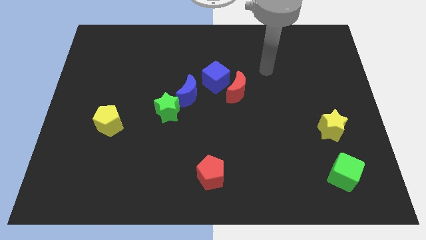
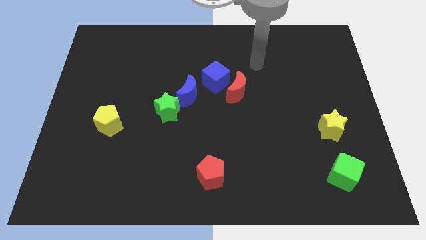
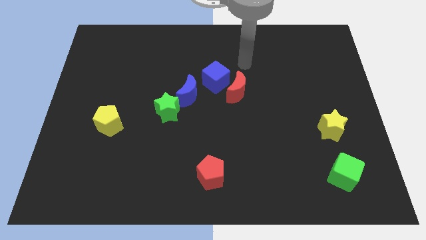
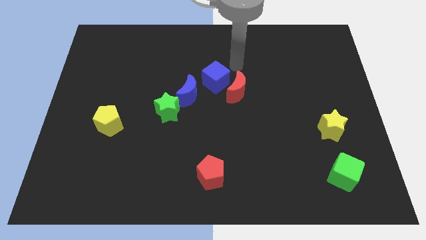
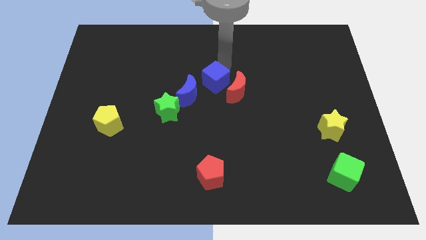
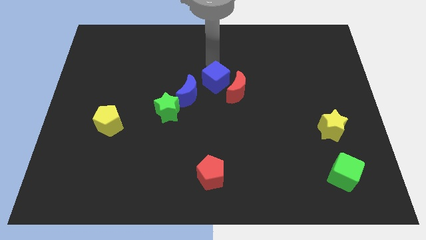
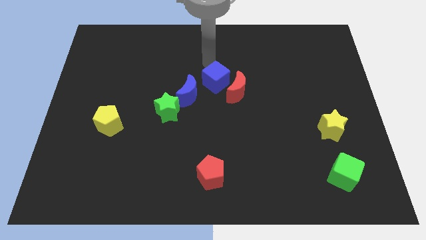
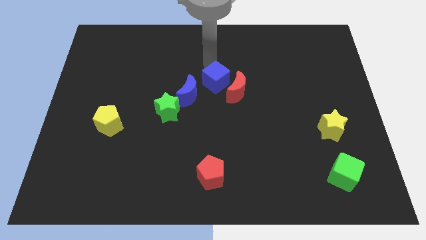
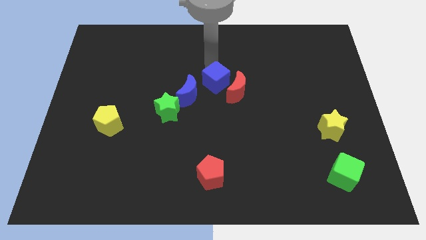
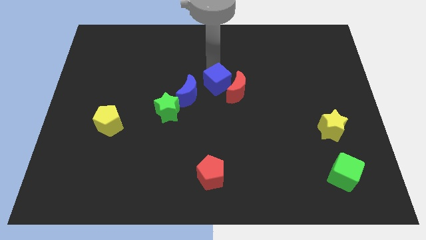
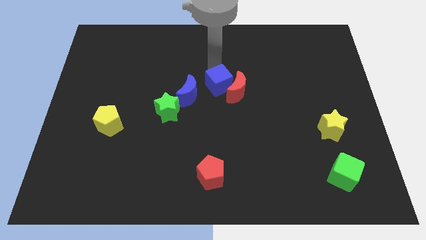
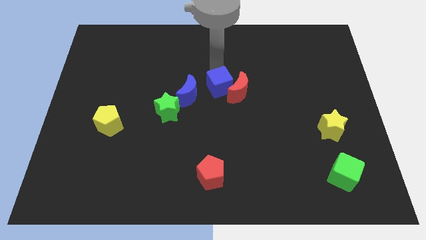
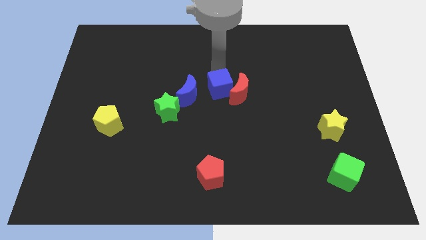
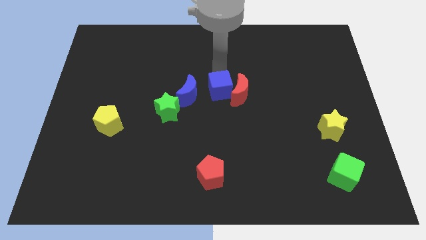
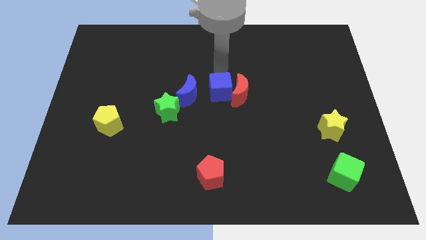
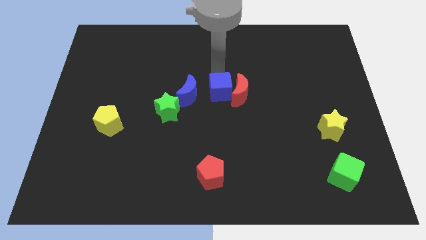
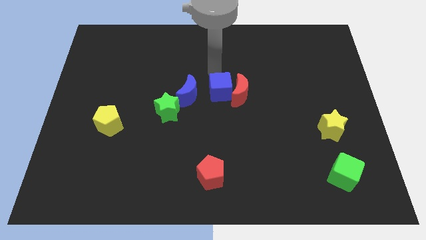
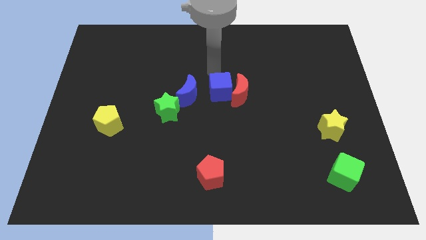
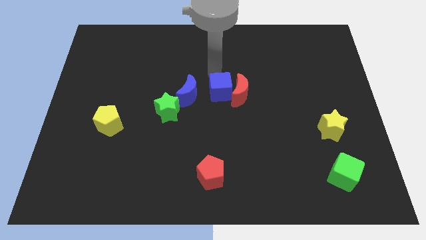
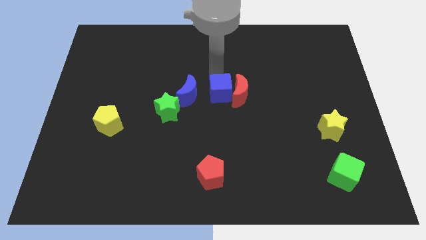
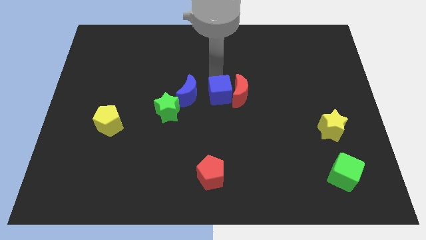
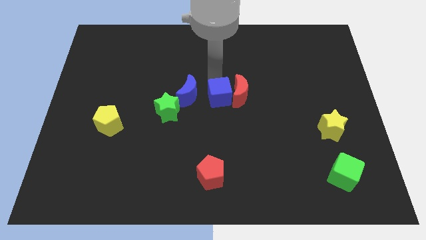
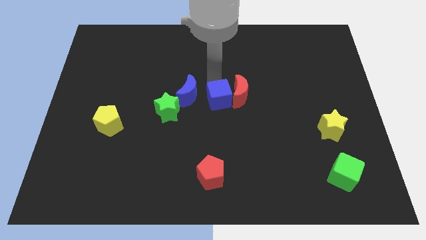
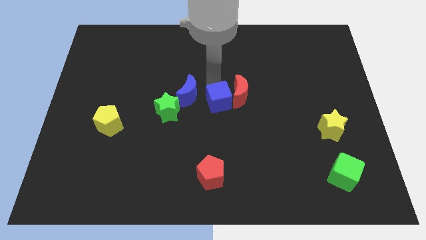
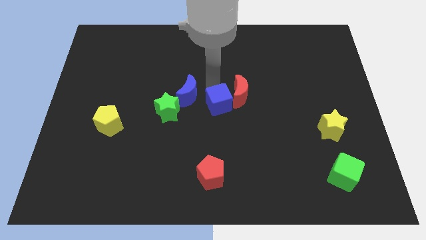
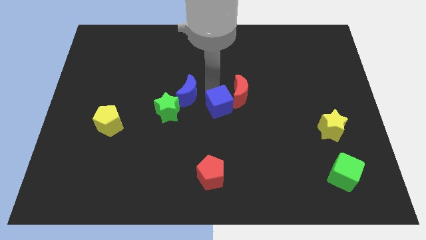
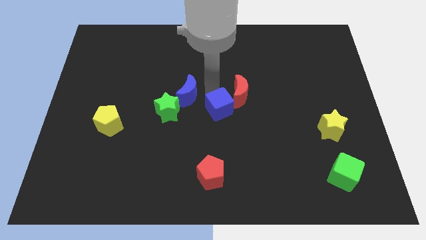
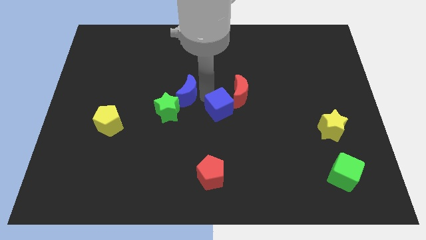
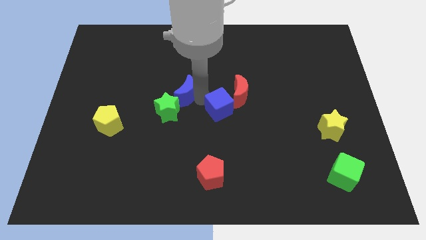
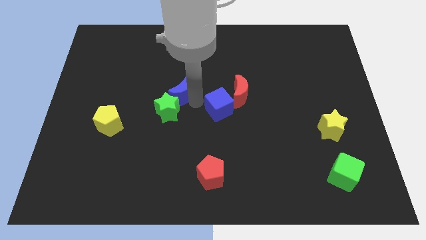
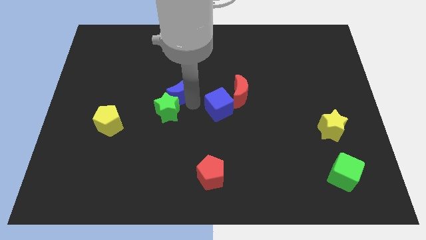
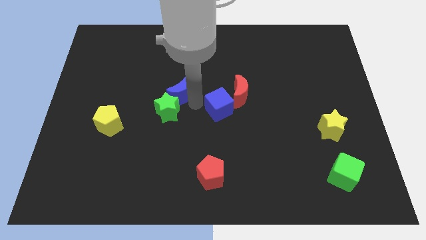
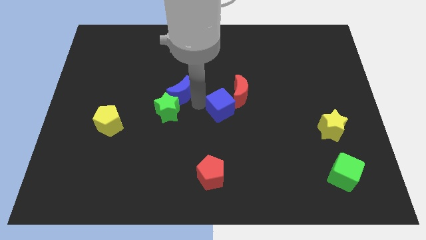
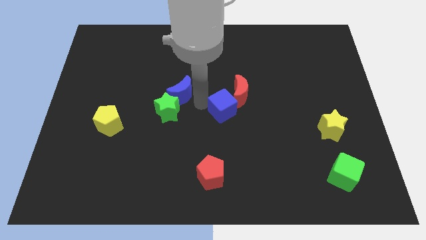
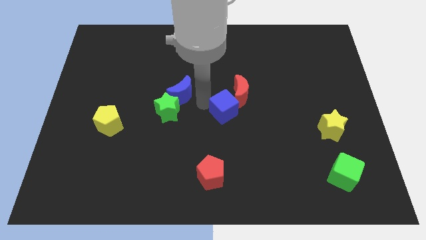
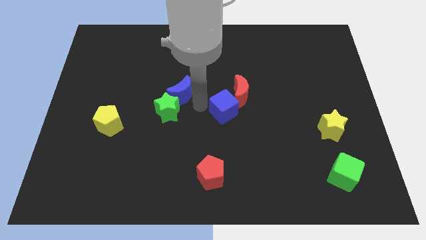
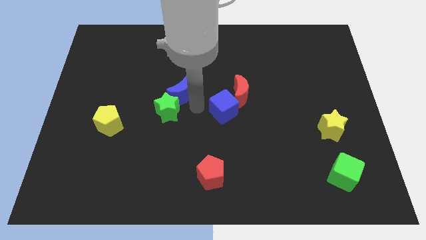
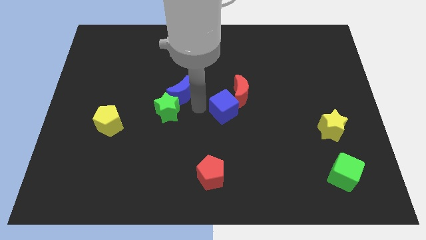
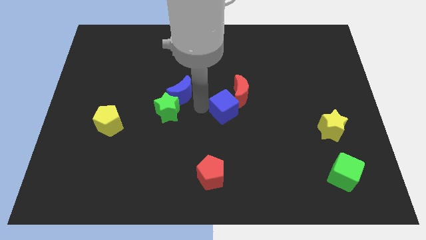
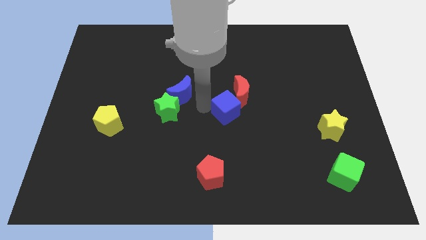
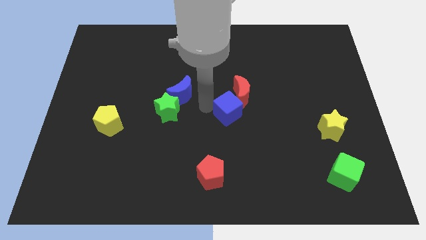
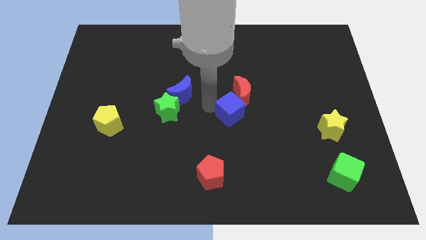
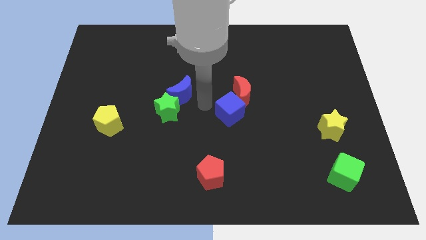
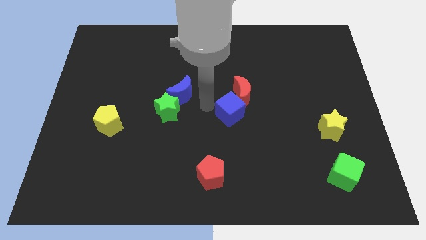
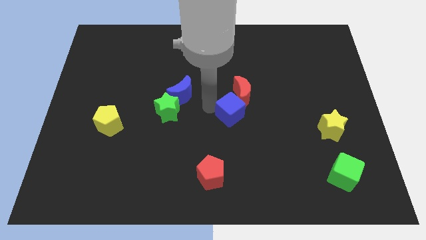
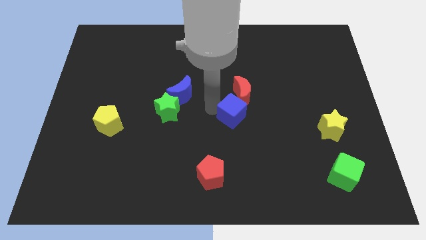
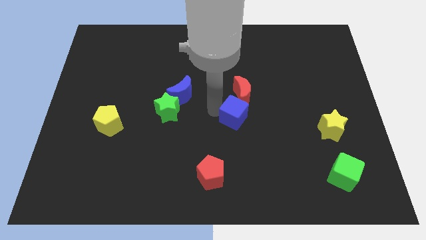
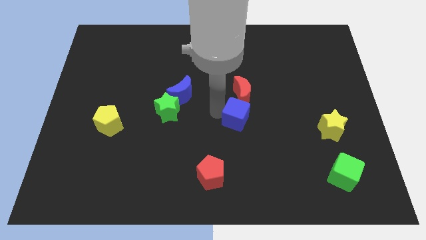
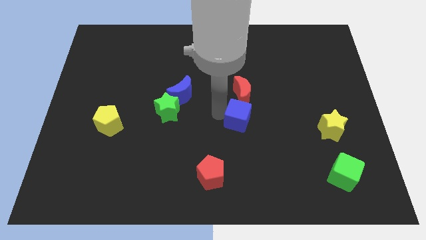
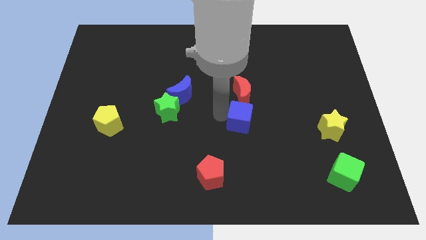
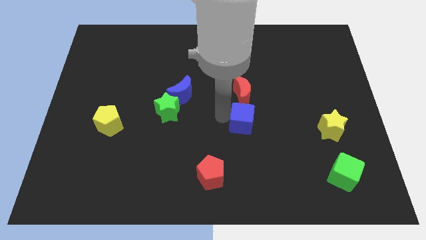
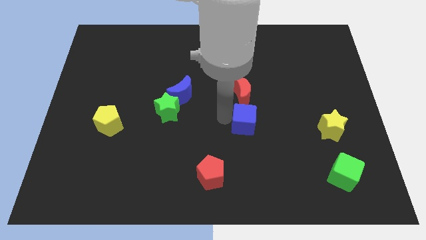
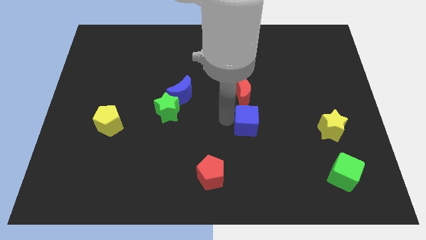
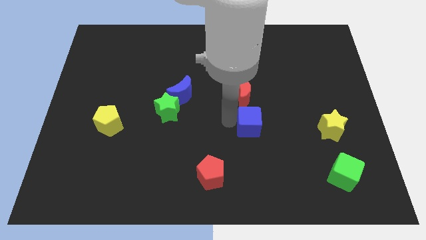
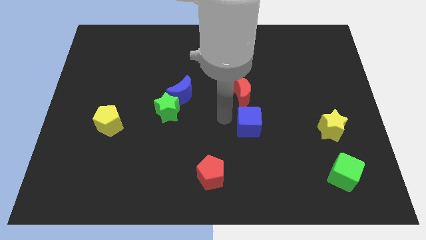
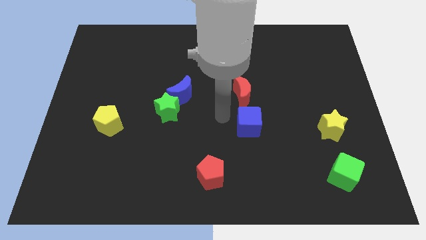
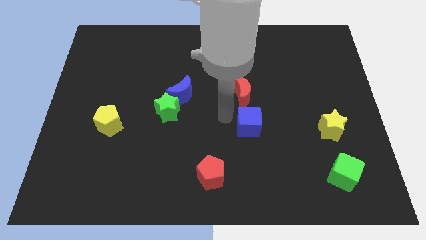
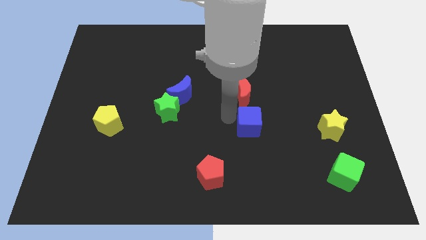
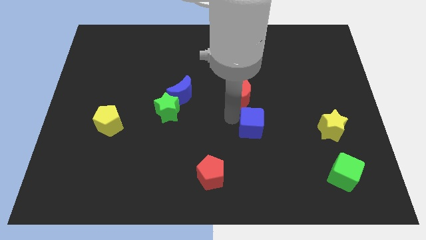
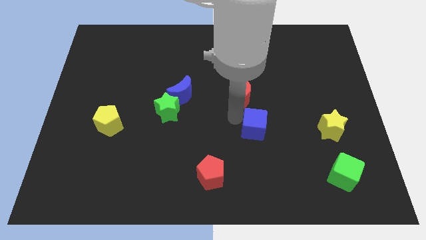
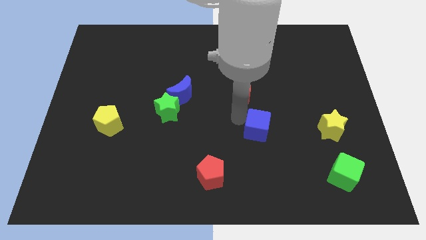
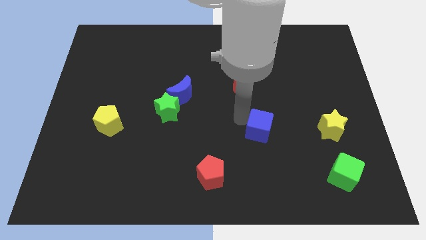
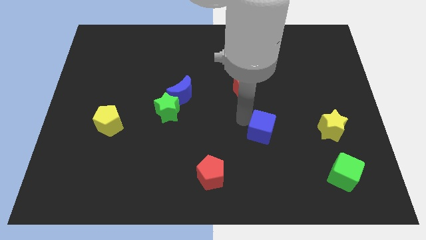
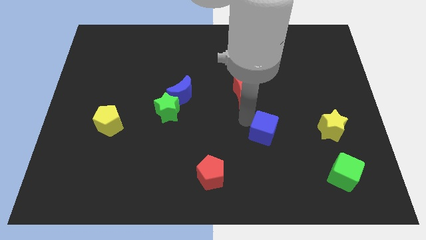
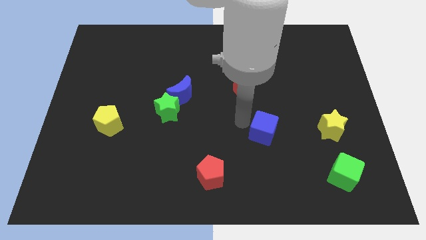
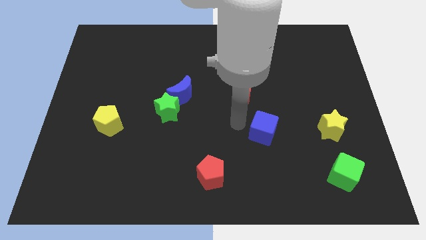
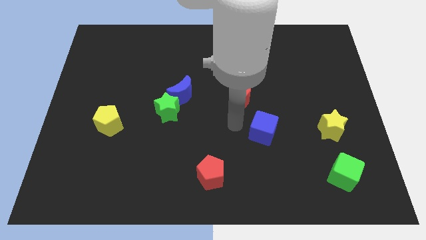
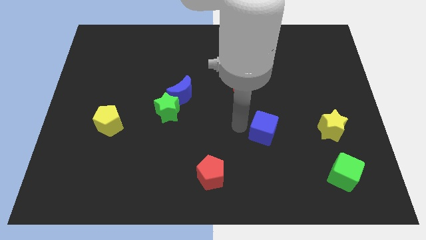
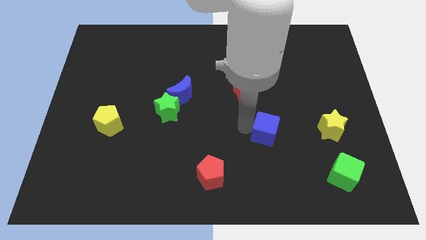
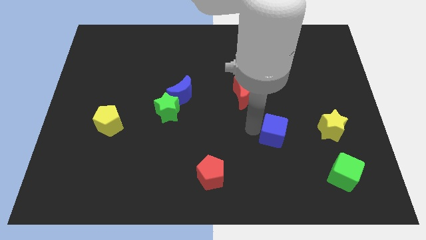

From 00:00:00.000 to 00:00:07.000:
move the blue cube downwards and then to the right

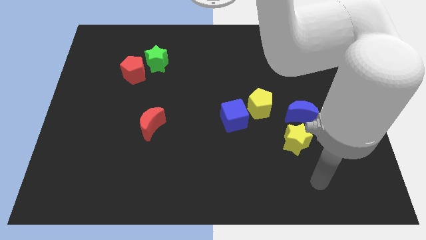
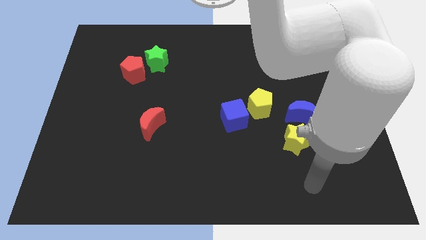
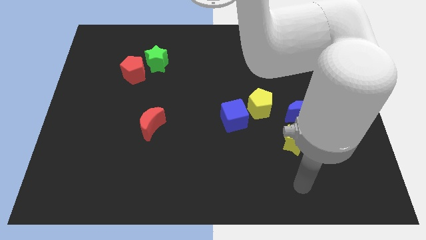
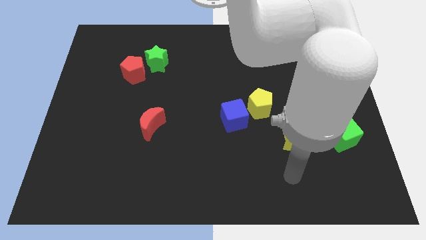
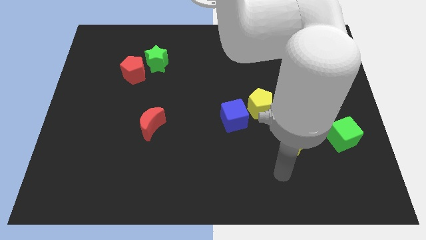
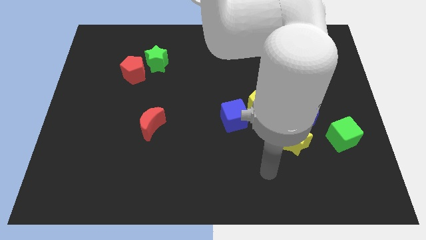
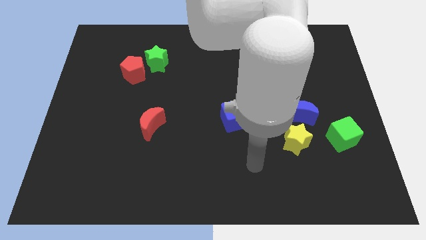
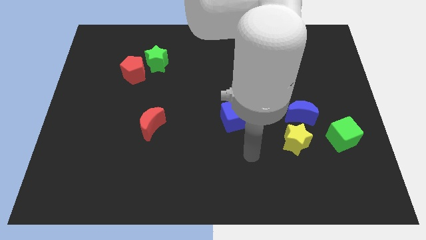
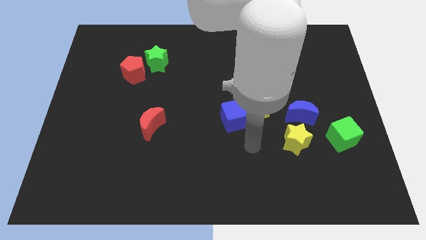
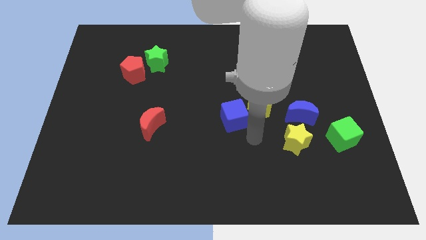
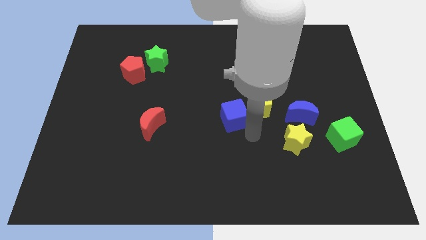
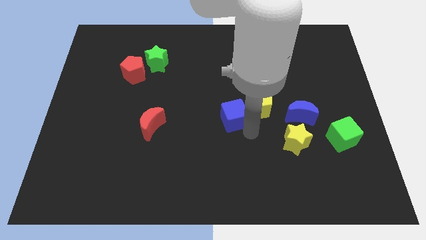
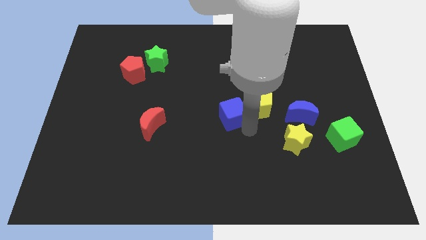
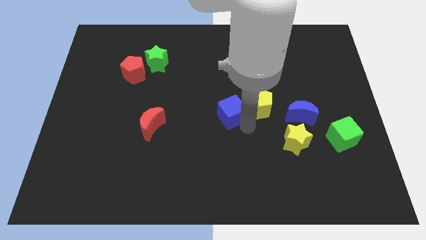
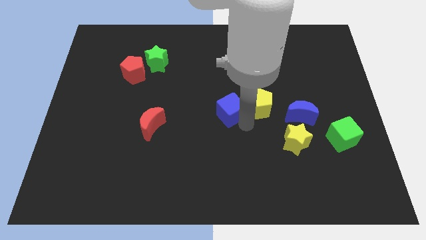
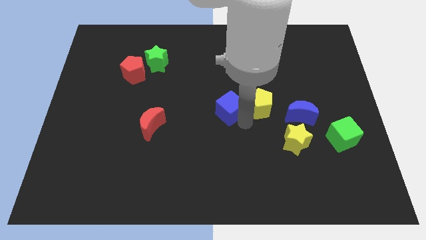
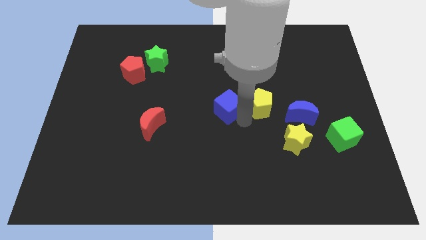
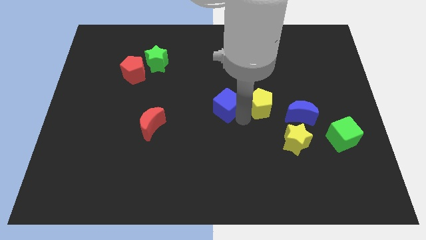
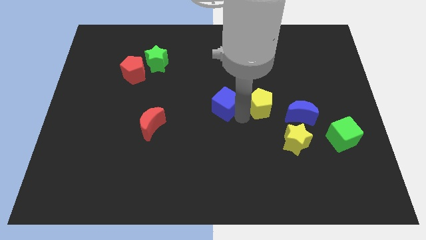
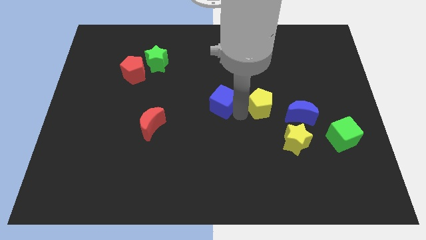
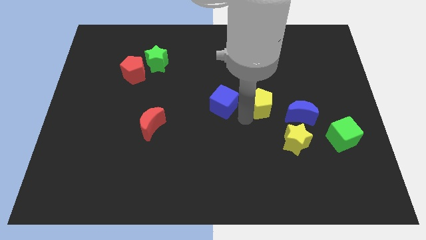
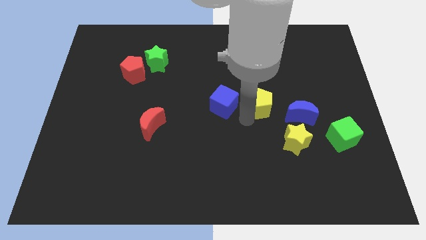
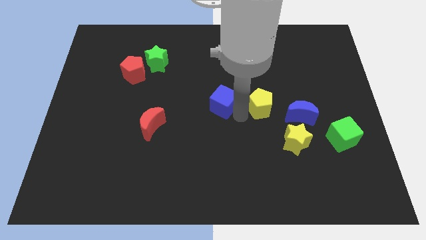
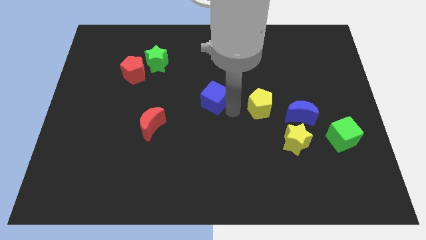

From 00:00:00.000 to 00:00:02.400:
move the blue cube up and to the left a little bit
